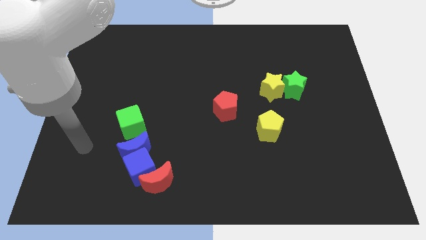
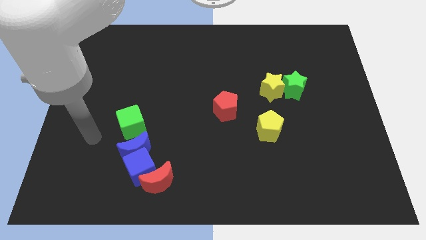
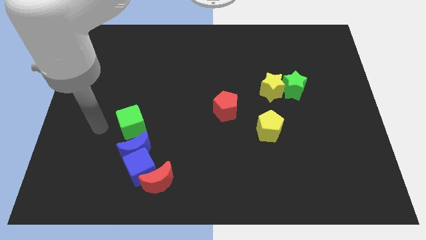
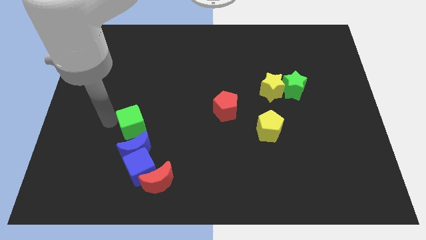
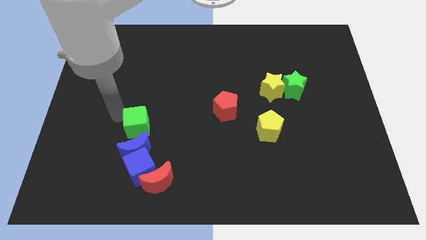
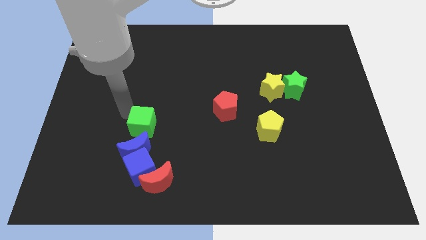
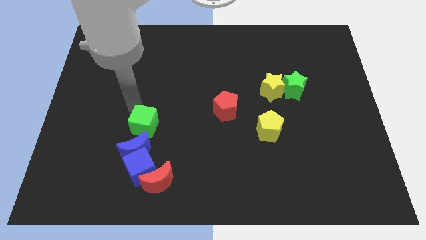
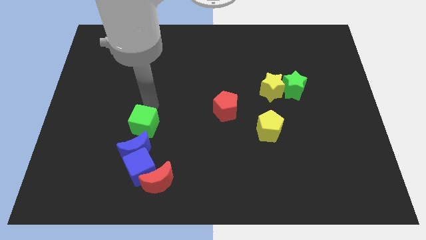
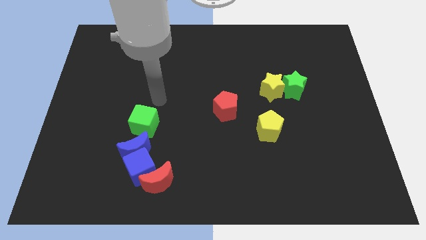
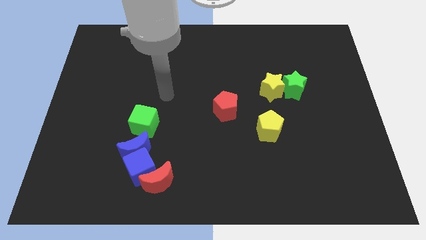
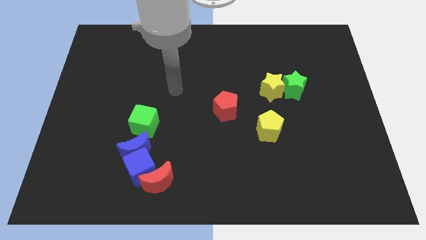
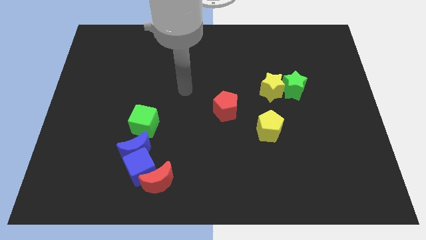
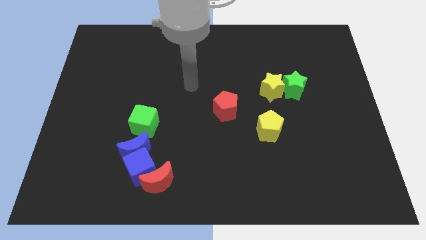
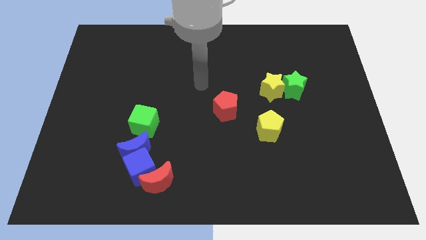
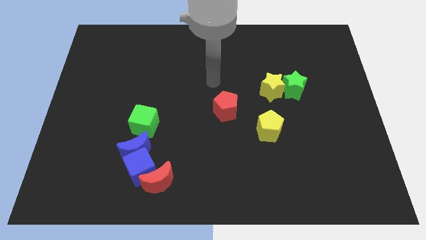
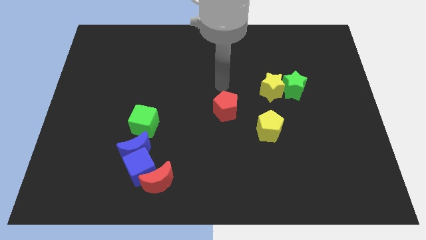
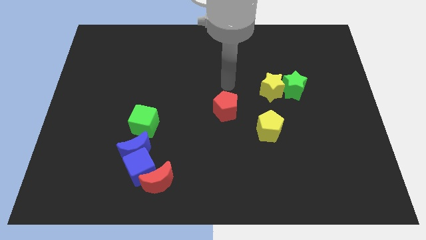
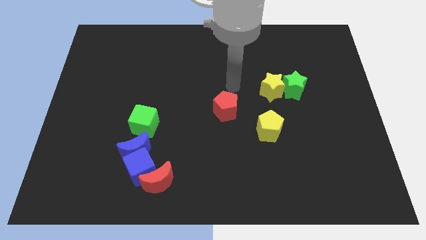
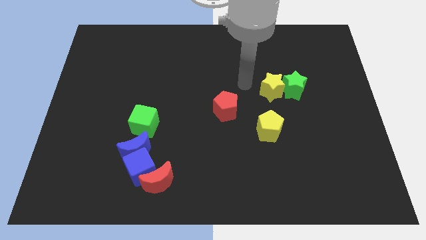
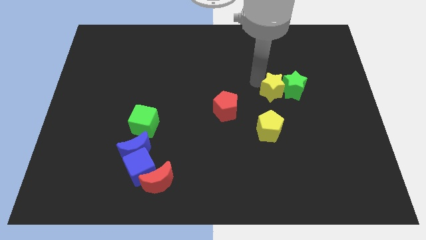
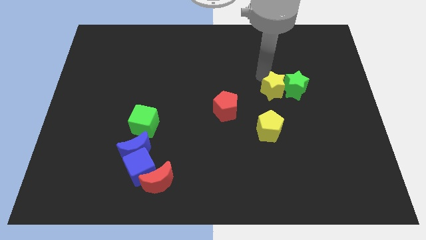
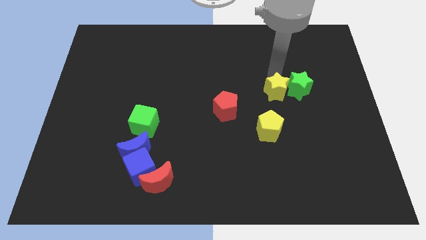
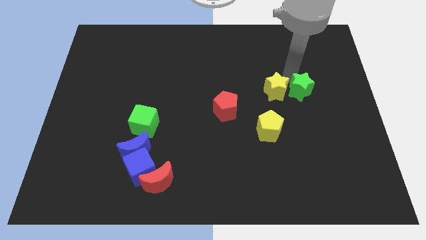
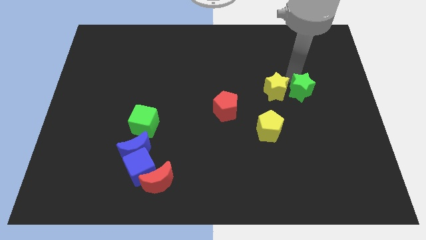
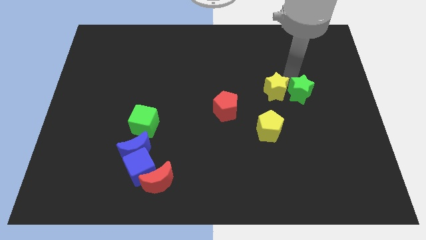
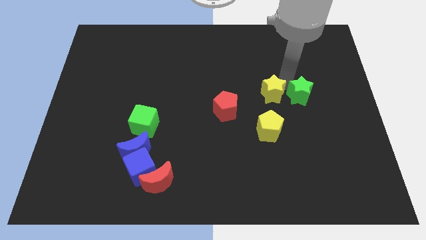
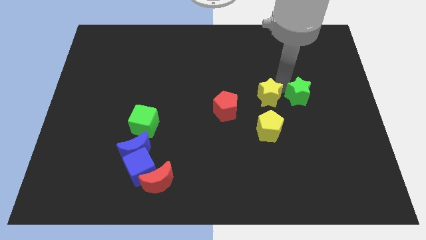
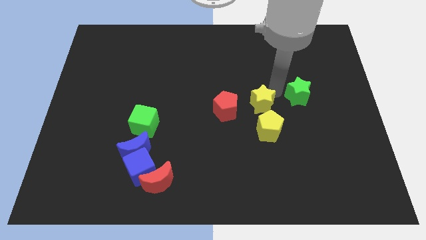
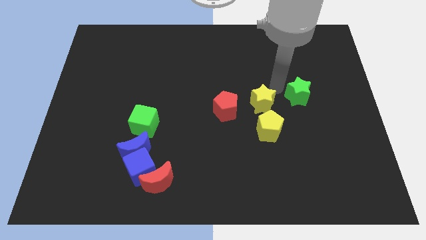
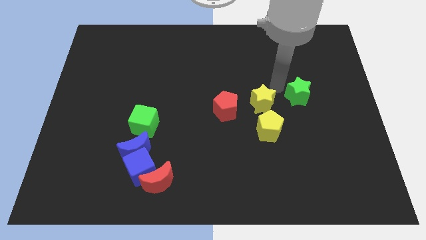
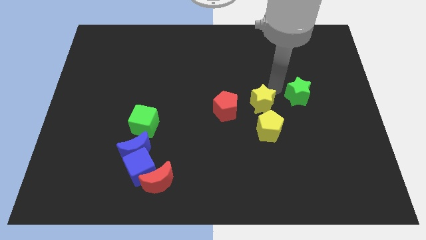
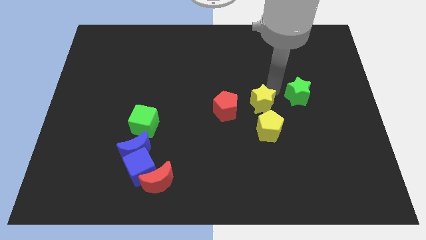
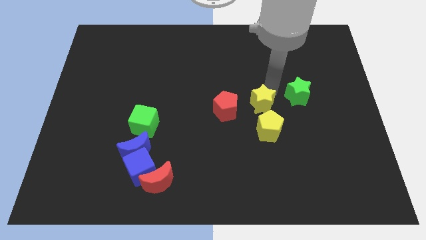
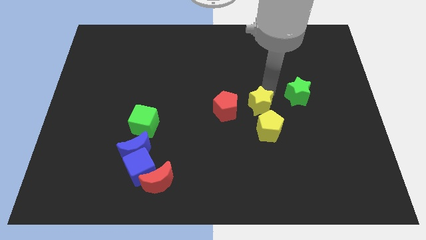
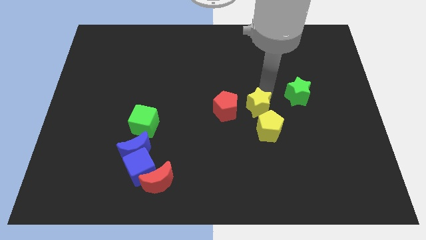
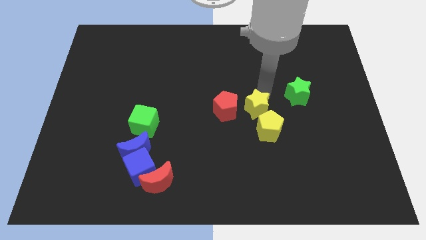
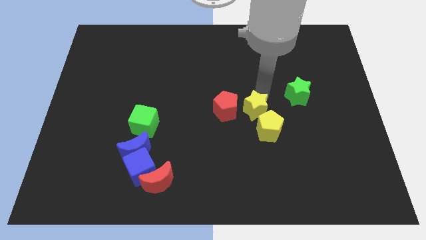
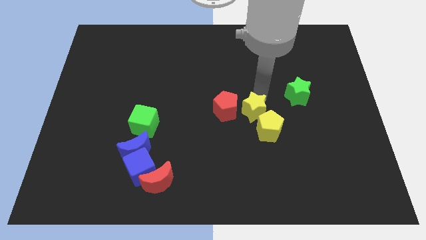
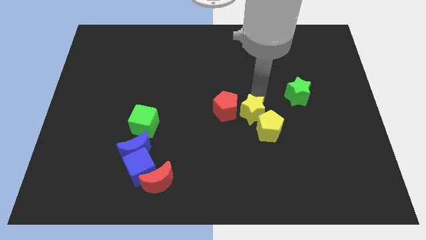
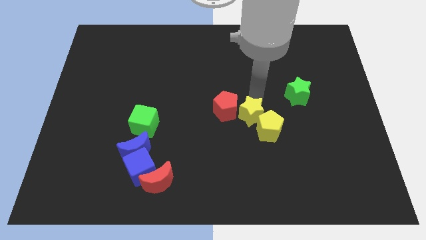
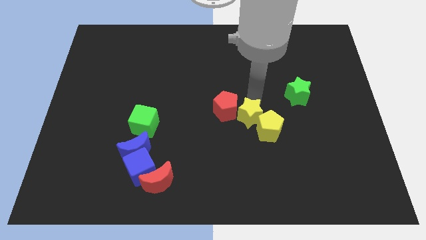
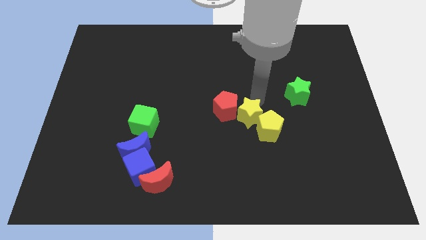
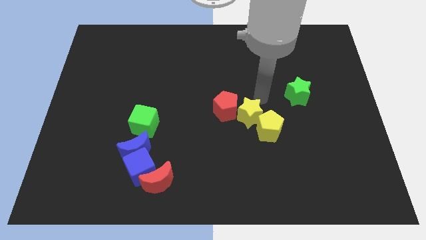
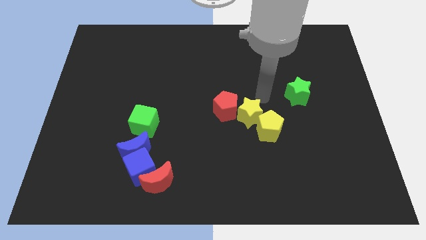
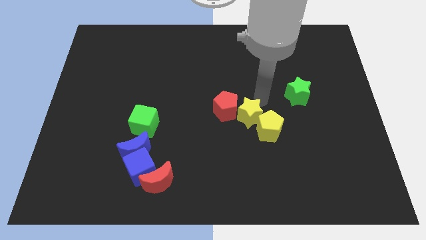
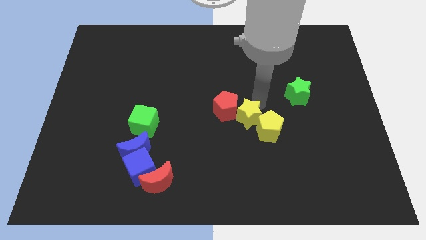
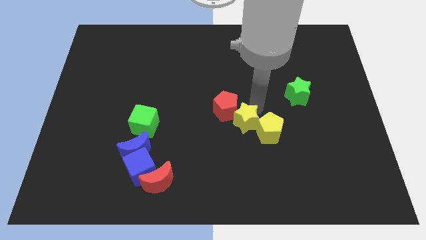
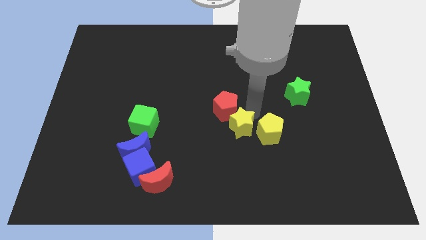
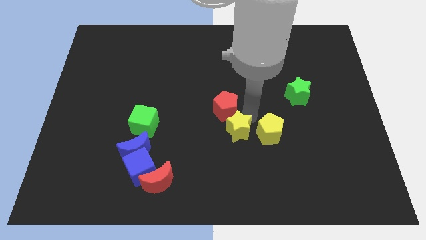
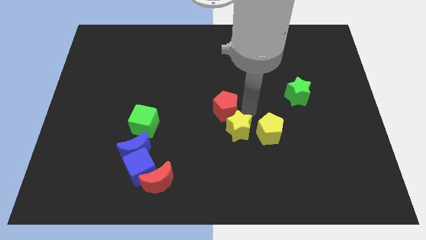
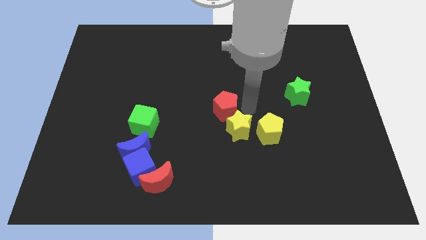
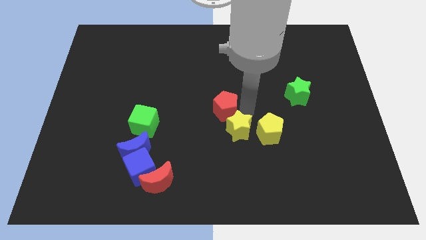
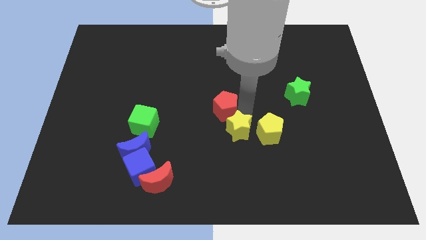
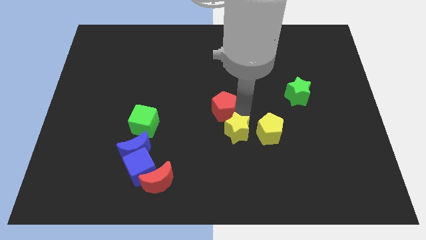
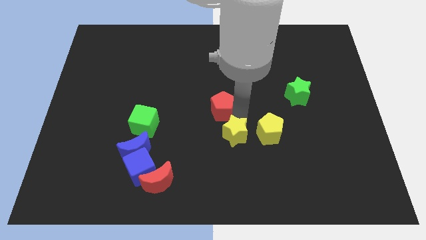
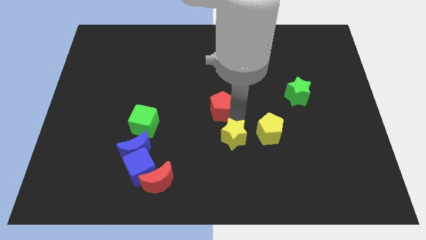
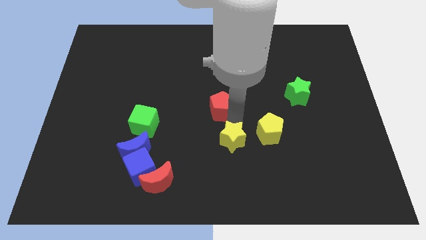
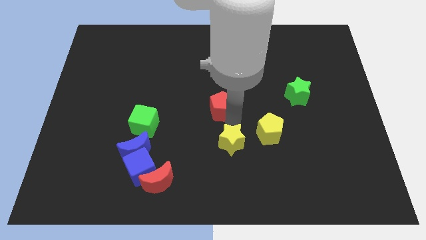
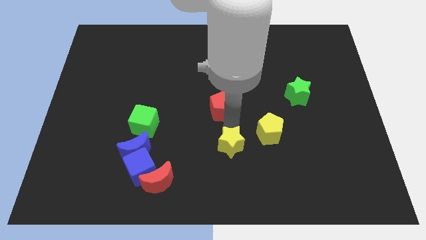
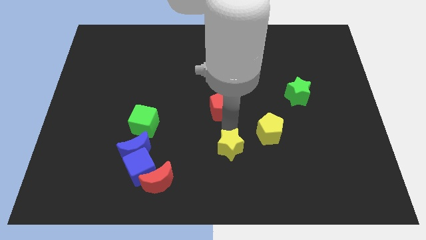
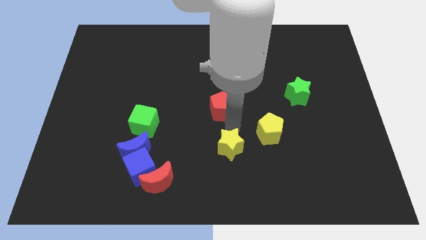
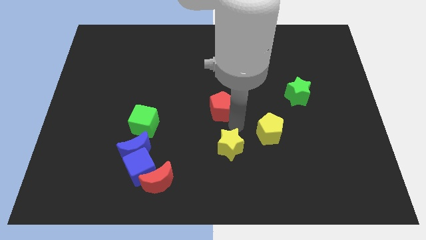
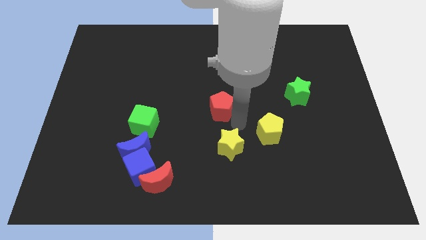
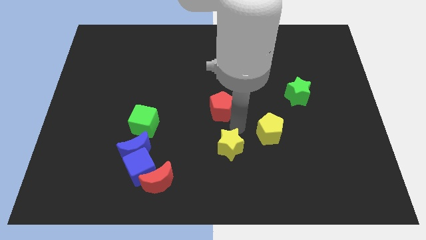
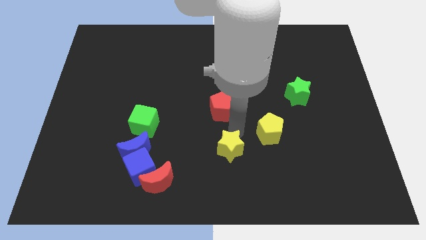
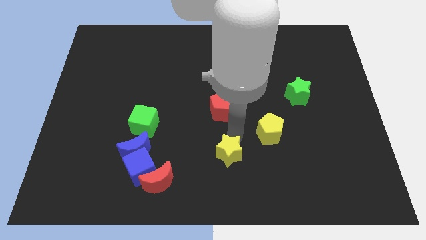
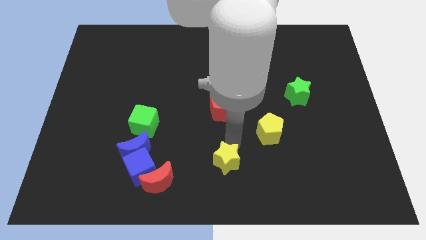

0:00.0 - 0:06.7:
move the yellow star to the bottom
